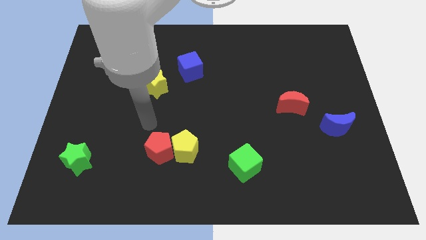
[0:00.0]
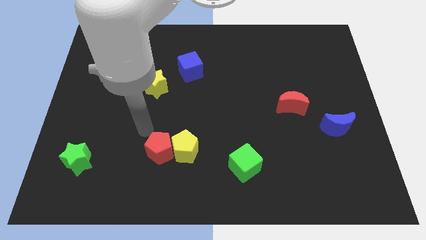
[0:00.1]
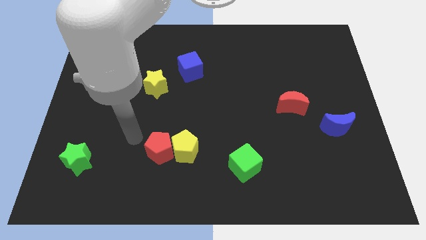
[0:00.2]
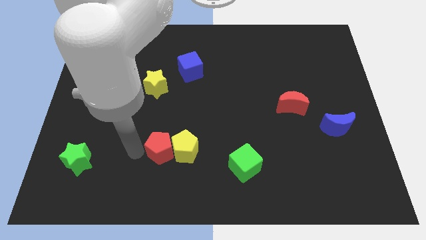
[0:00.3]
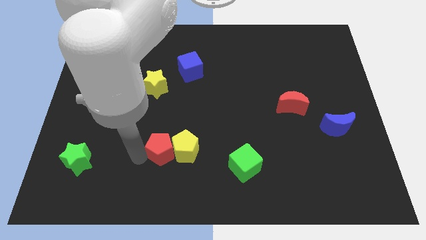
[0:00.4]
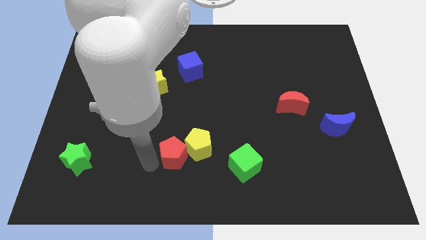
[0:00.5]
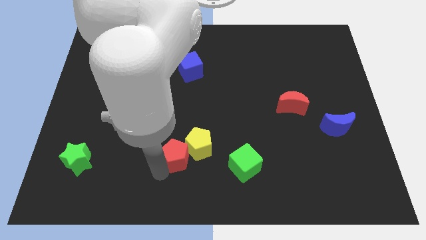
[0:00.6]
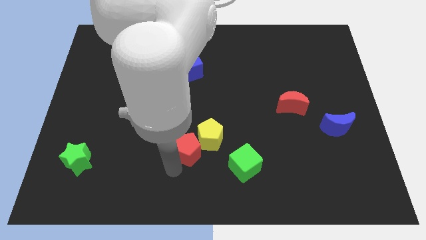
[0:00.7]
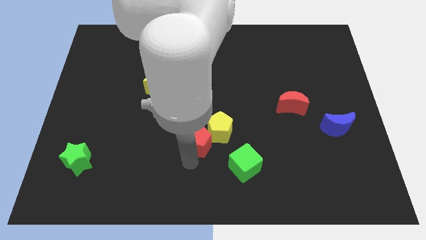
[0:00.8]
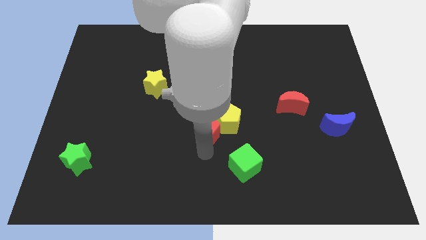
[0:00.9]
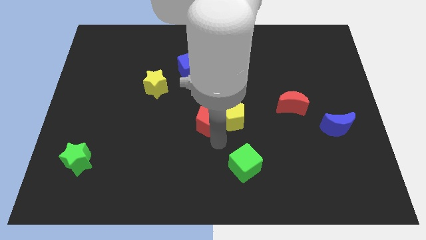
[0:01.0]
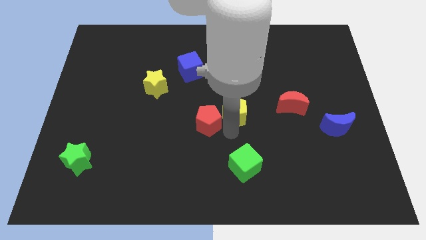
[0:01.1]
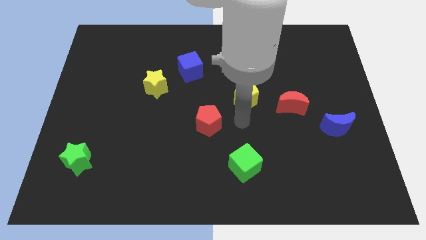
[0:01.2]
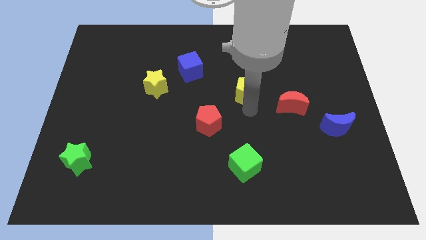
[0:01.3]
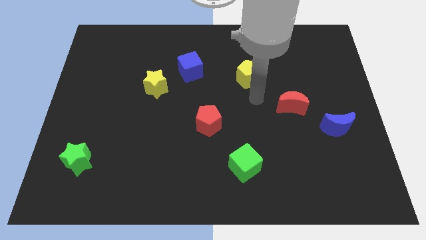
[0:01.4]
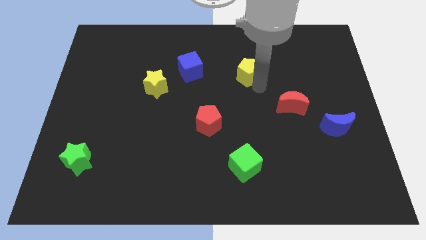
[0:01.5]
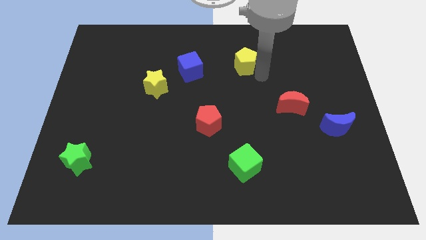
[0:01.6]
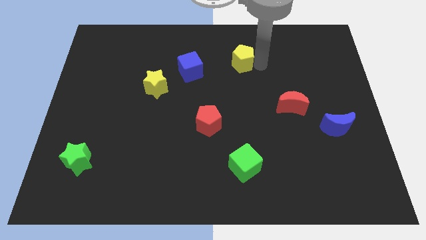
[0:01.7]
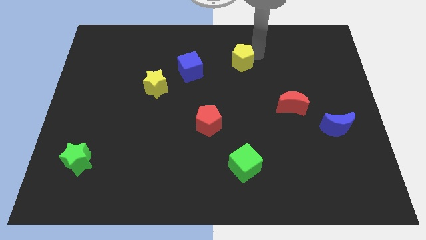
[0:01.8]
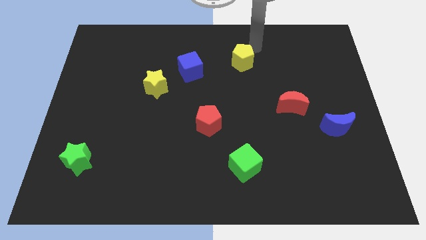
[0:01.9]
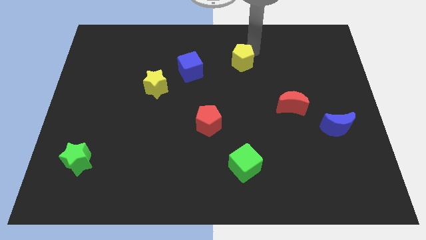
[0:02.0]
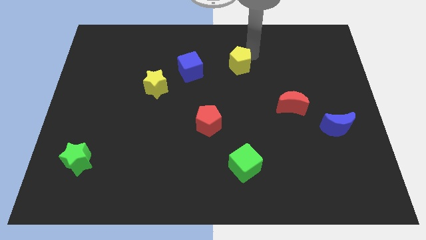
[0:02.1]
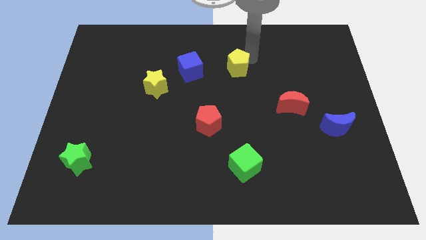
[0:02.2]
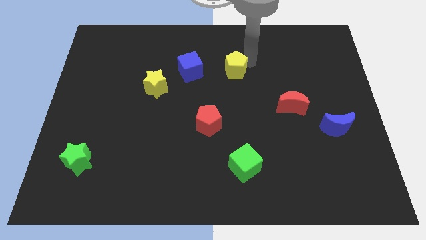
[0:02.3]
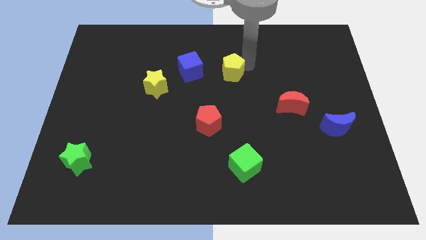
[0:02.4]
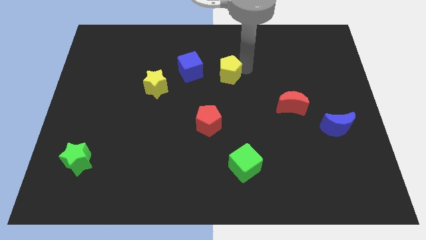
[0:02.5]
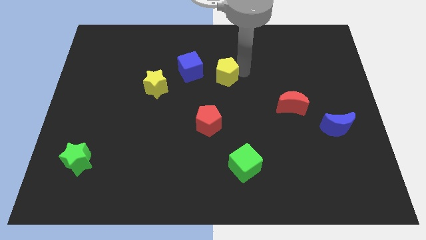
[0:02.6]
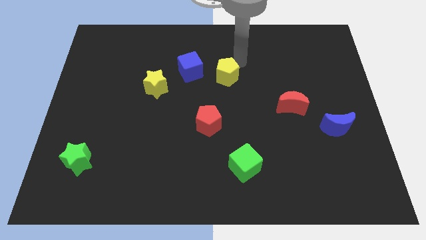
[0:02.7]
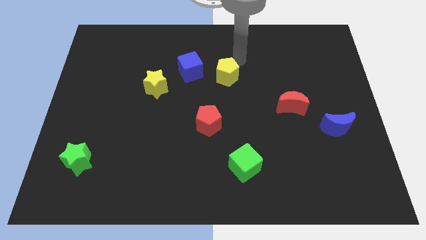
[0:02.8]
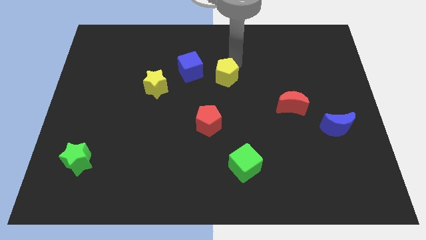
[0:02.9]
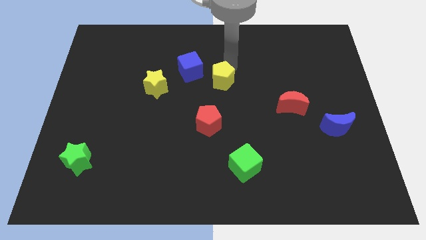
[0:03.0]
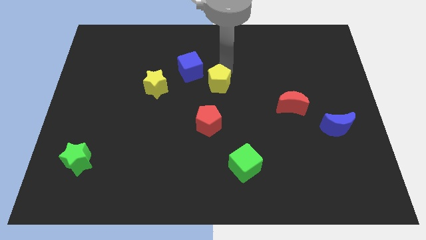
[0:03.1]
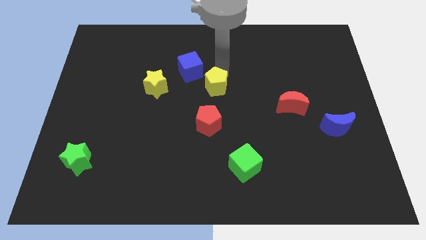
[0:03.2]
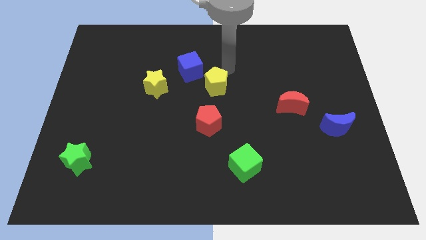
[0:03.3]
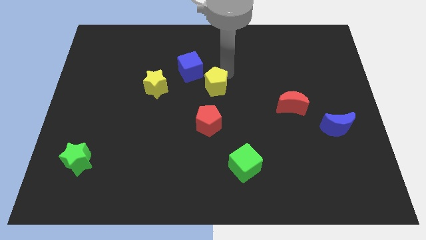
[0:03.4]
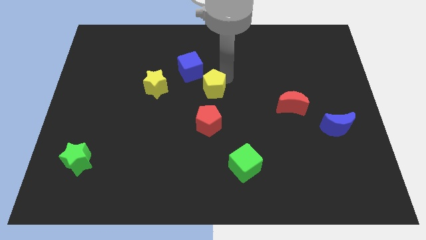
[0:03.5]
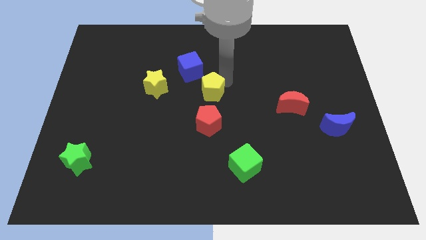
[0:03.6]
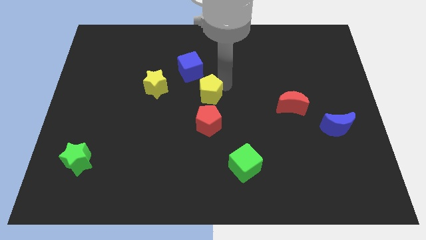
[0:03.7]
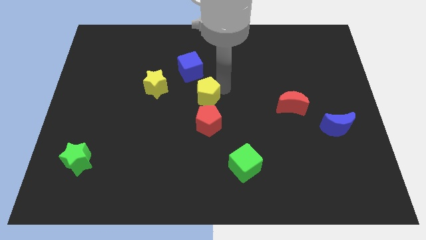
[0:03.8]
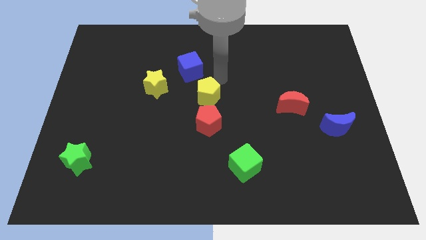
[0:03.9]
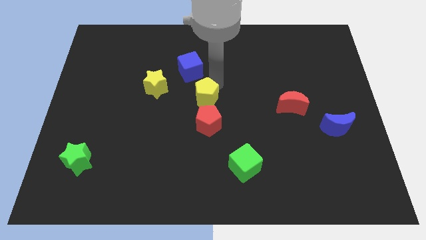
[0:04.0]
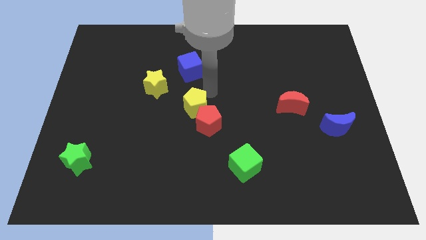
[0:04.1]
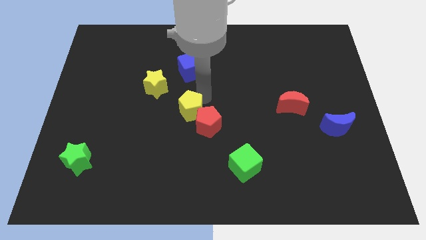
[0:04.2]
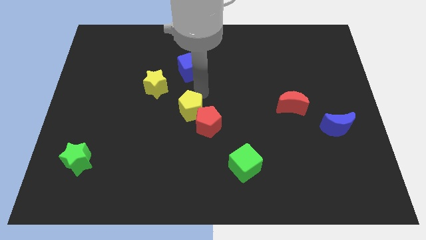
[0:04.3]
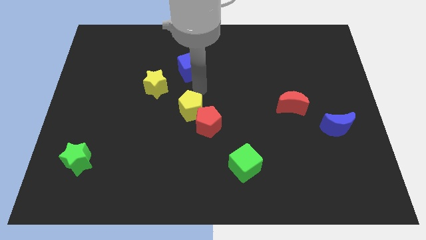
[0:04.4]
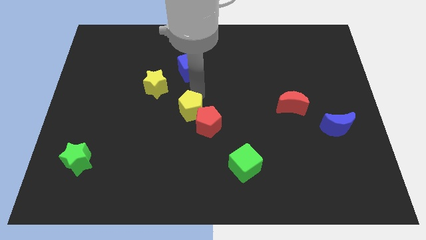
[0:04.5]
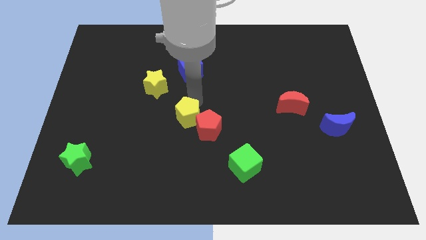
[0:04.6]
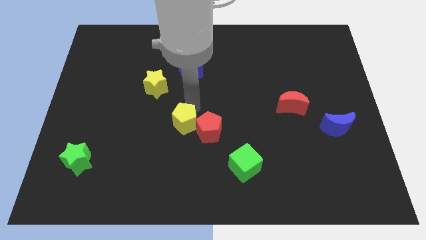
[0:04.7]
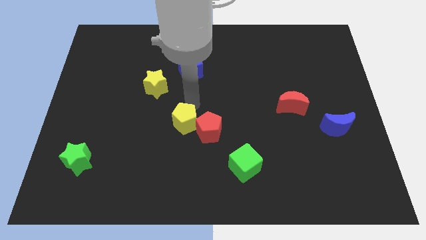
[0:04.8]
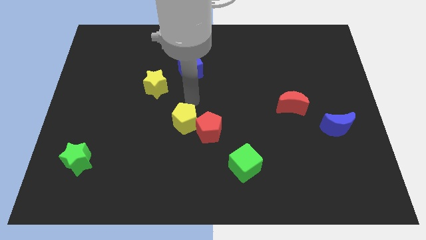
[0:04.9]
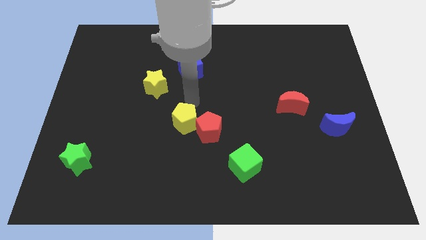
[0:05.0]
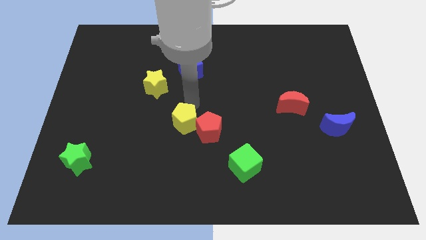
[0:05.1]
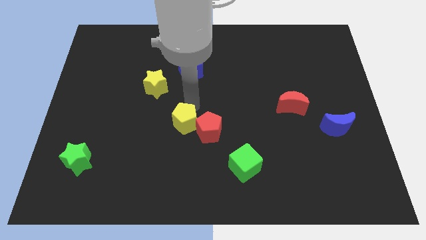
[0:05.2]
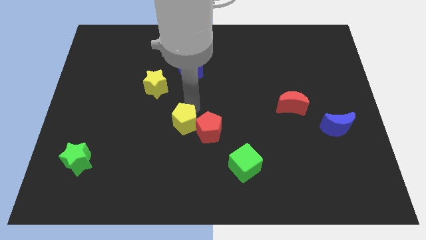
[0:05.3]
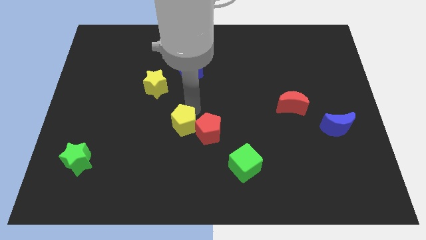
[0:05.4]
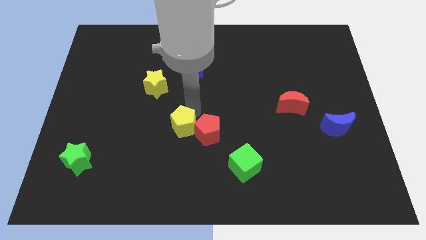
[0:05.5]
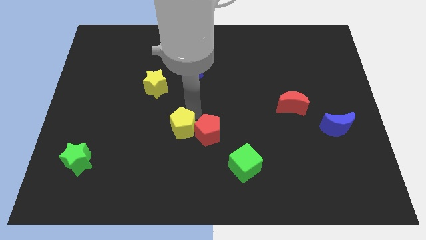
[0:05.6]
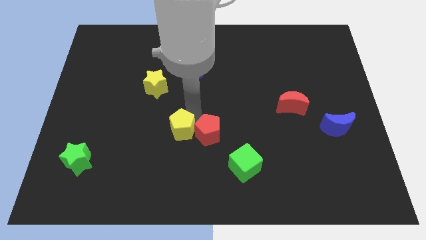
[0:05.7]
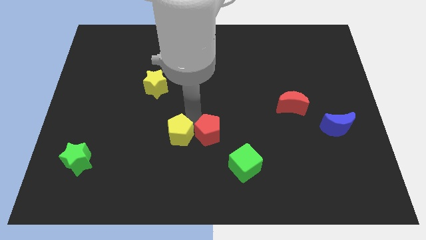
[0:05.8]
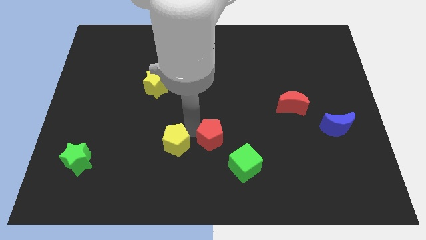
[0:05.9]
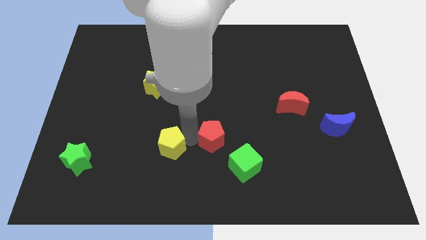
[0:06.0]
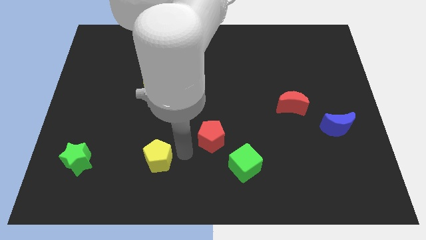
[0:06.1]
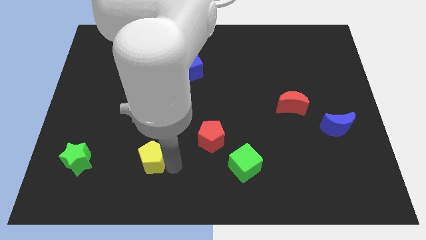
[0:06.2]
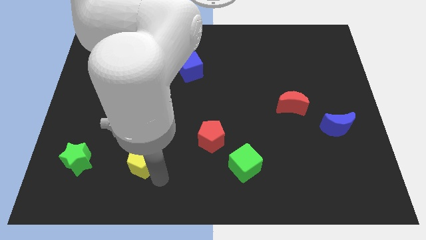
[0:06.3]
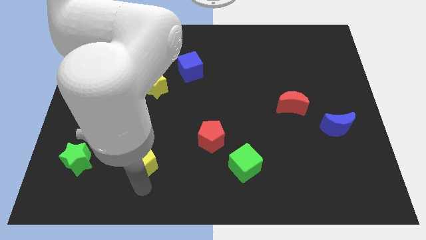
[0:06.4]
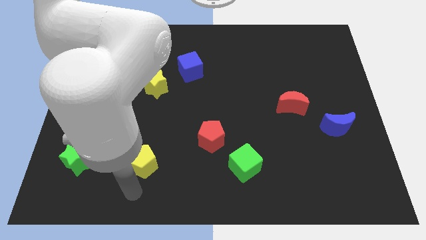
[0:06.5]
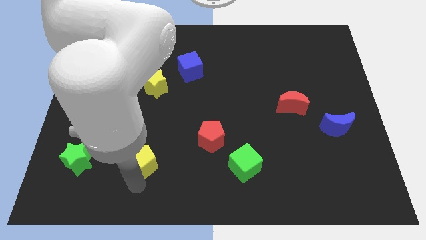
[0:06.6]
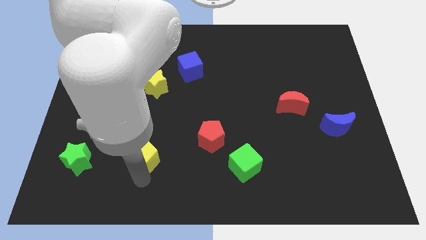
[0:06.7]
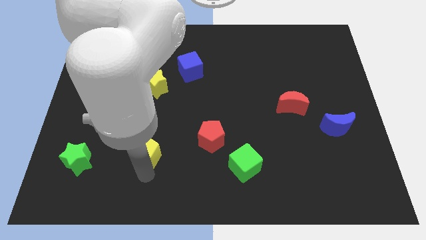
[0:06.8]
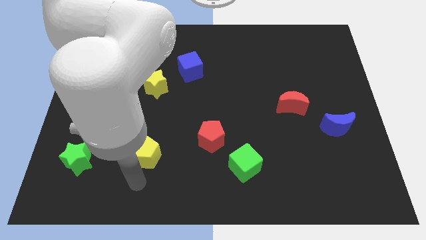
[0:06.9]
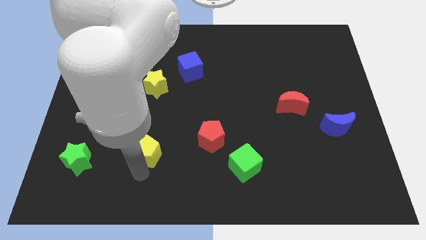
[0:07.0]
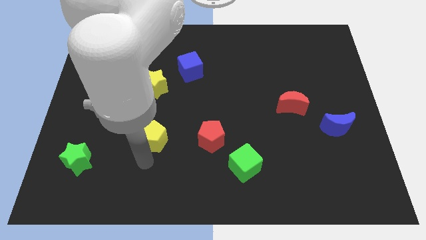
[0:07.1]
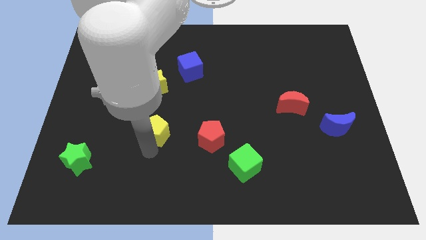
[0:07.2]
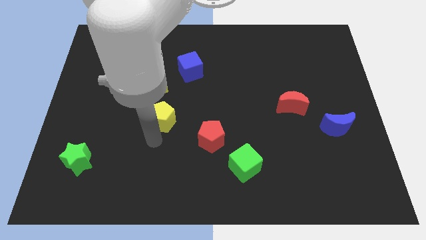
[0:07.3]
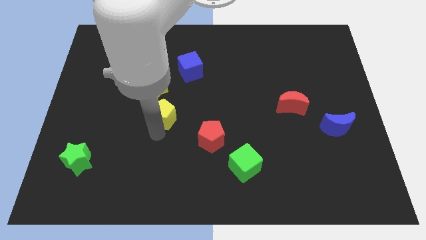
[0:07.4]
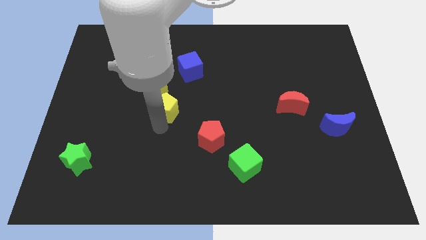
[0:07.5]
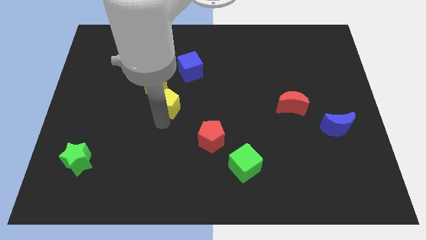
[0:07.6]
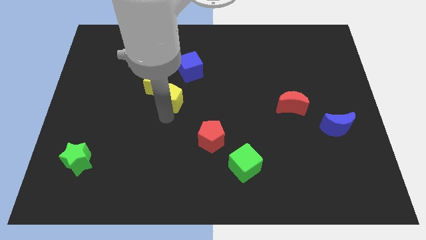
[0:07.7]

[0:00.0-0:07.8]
push the yellow pentagon towards the yellow star
